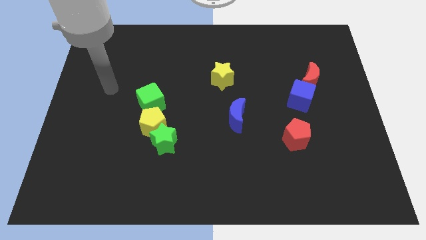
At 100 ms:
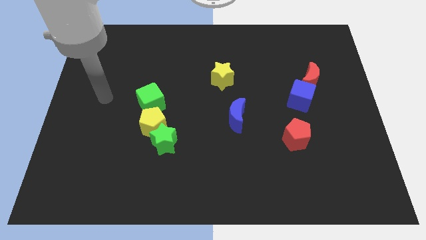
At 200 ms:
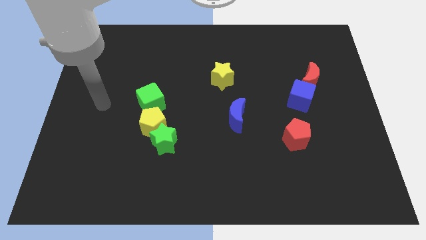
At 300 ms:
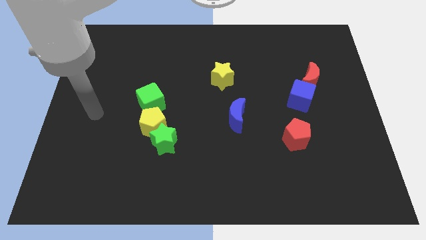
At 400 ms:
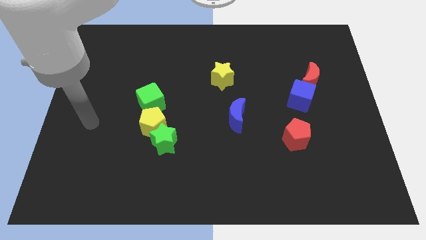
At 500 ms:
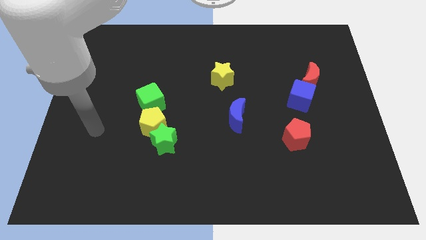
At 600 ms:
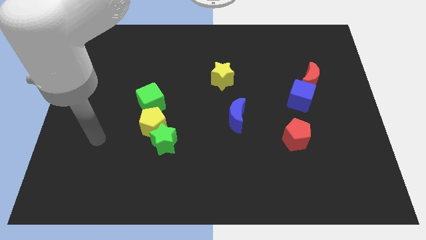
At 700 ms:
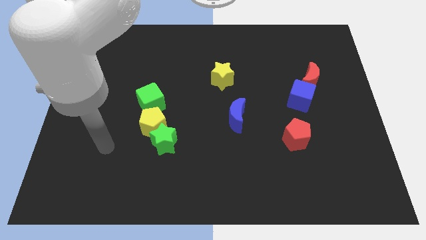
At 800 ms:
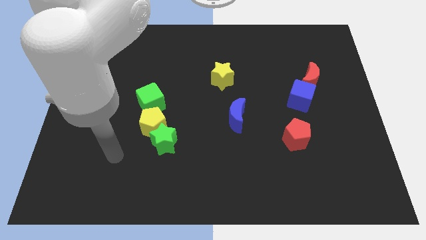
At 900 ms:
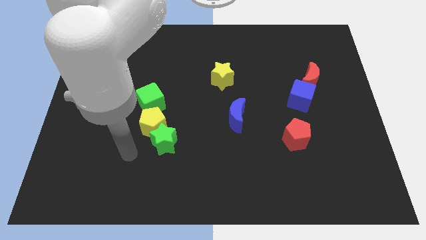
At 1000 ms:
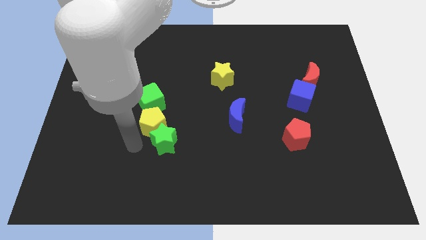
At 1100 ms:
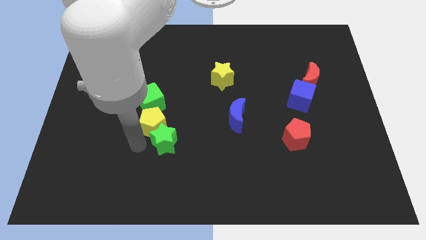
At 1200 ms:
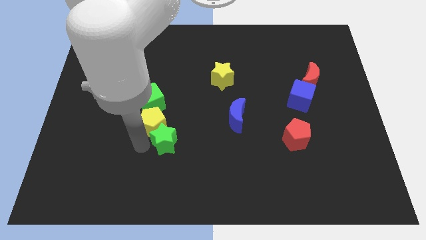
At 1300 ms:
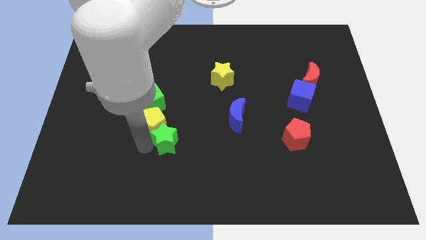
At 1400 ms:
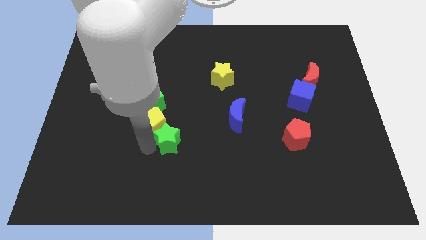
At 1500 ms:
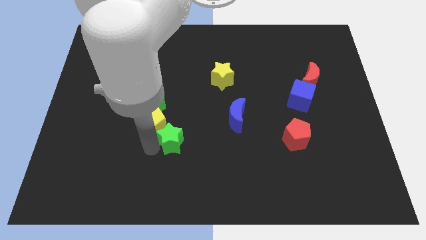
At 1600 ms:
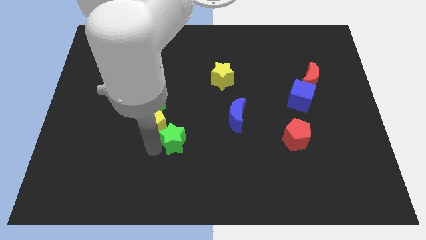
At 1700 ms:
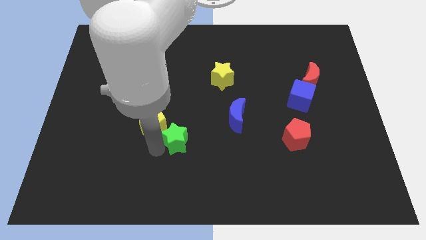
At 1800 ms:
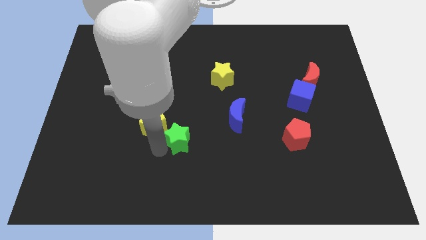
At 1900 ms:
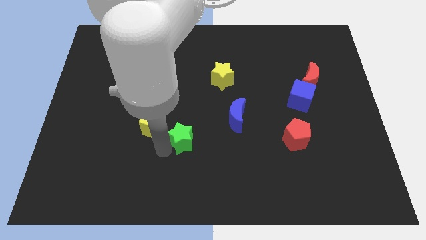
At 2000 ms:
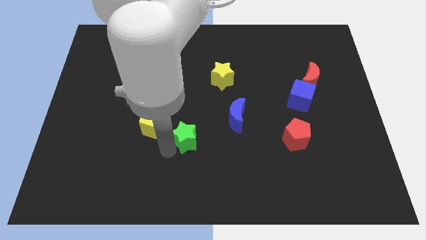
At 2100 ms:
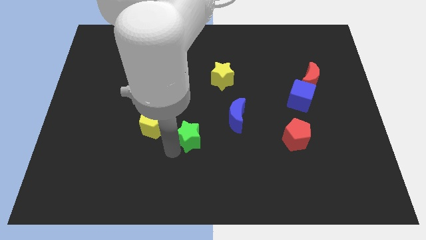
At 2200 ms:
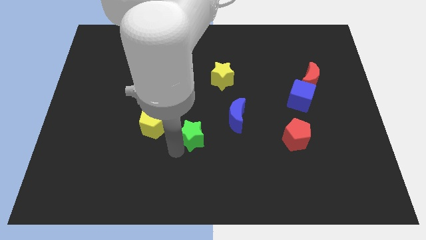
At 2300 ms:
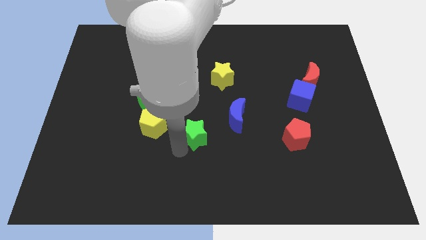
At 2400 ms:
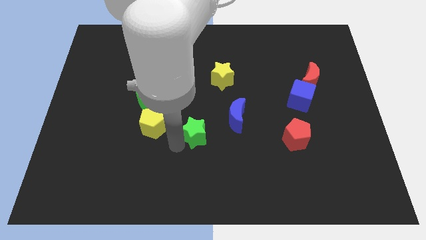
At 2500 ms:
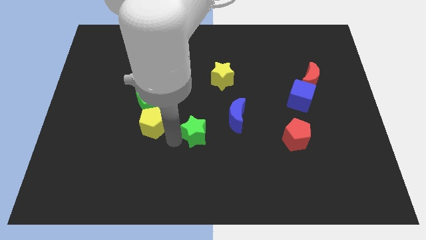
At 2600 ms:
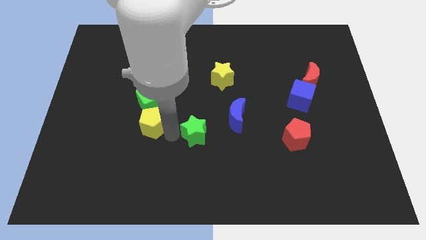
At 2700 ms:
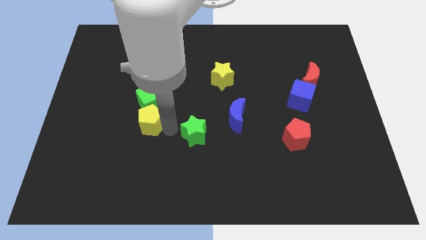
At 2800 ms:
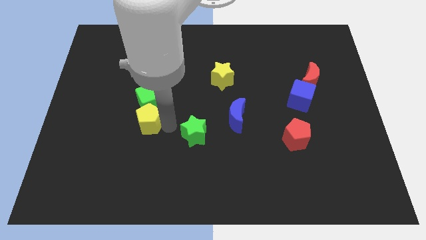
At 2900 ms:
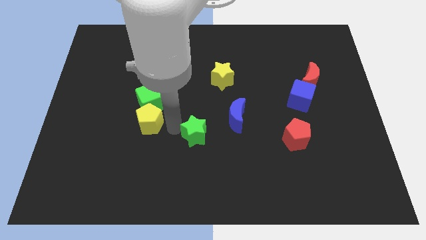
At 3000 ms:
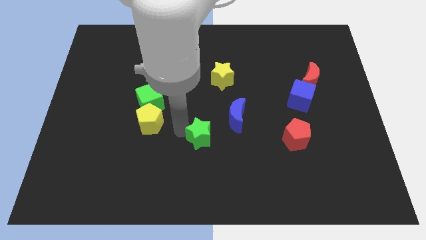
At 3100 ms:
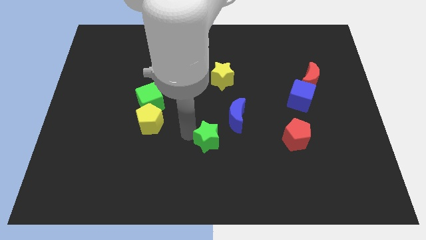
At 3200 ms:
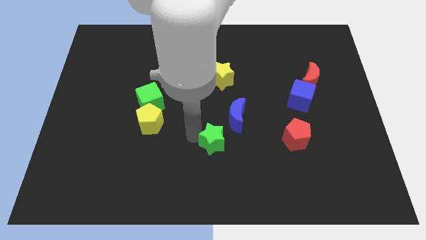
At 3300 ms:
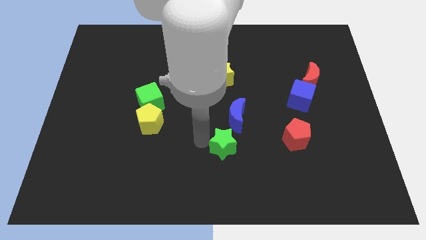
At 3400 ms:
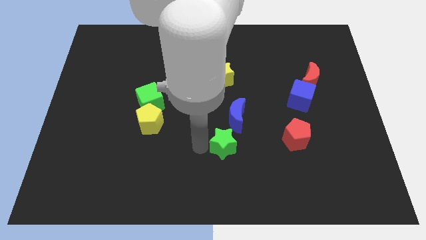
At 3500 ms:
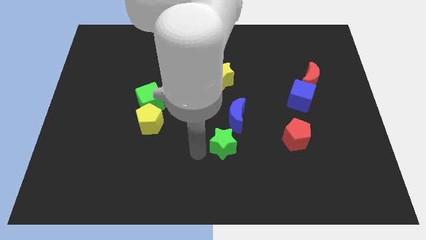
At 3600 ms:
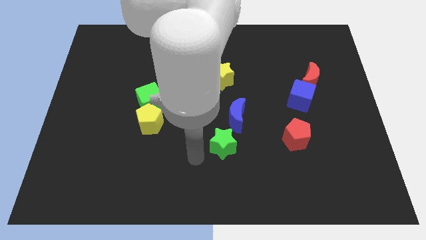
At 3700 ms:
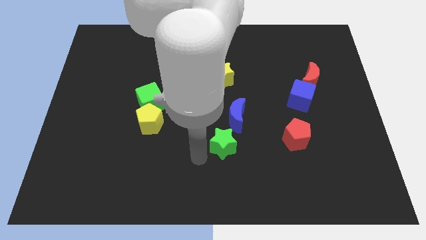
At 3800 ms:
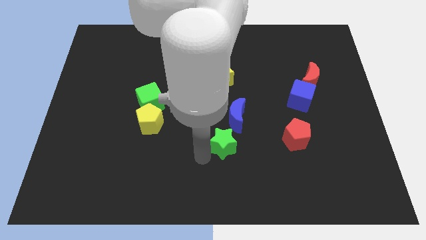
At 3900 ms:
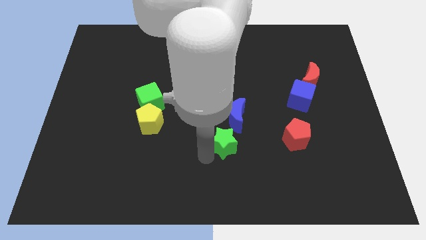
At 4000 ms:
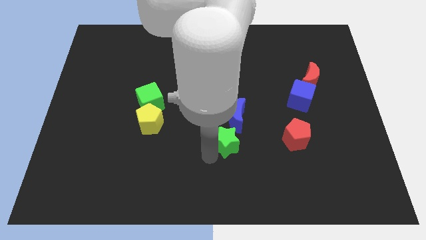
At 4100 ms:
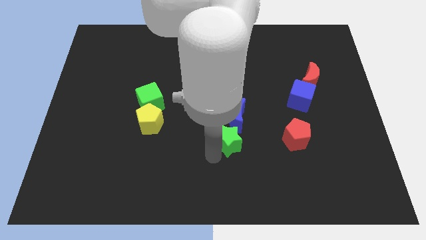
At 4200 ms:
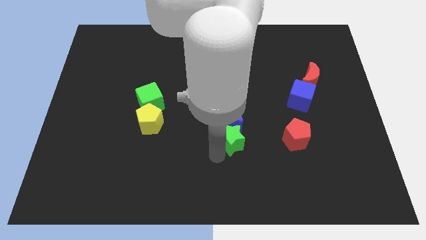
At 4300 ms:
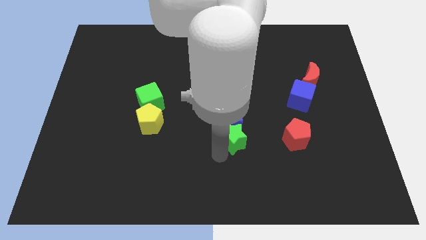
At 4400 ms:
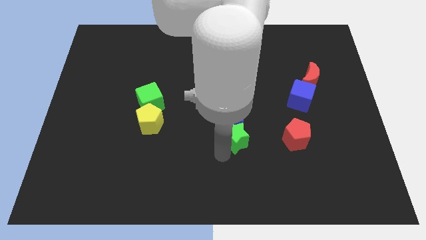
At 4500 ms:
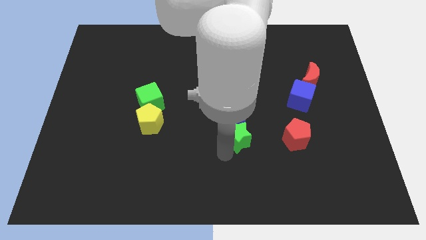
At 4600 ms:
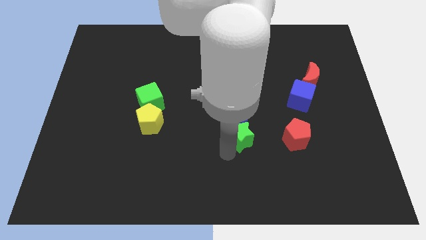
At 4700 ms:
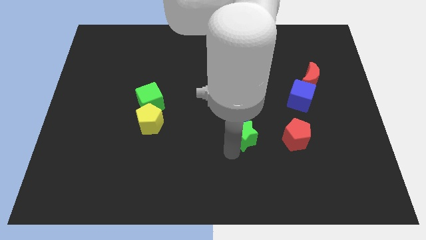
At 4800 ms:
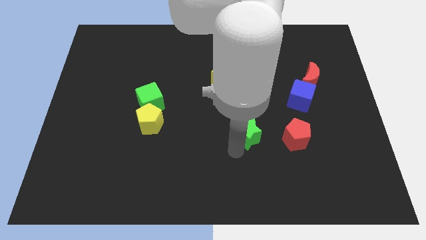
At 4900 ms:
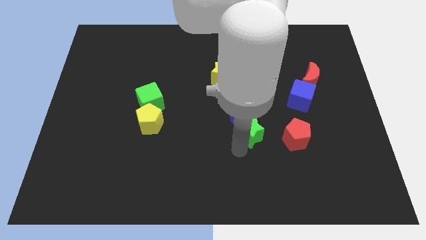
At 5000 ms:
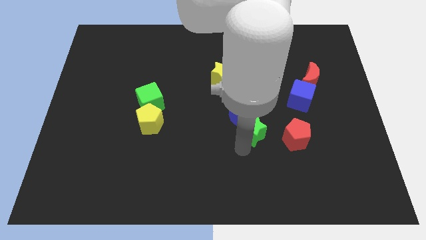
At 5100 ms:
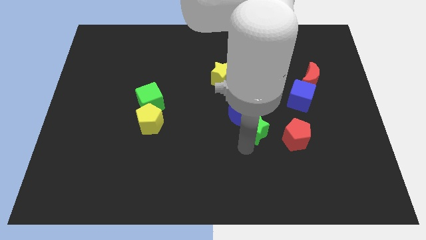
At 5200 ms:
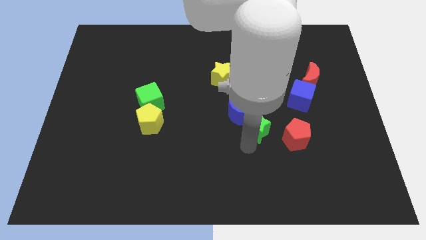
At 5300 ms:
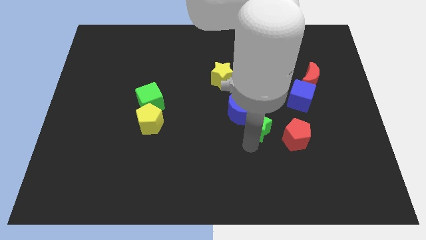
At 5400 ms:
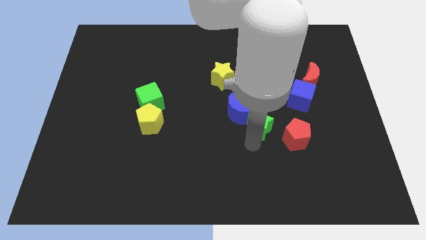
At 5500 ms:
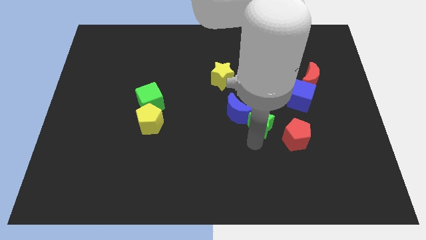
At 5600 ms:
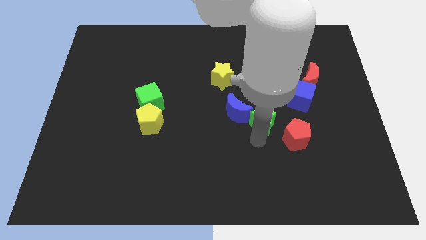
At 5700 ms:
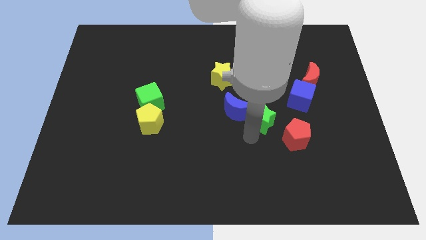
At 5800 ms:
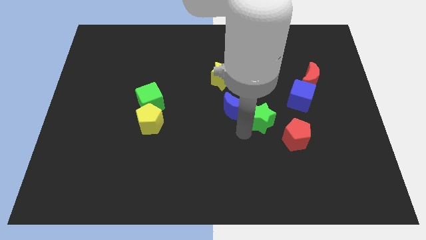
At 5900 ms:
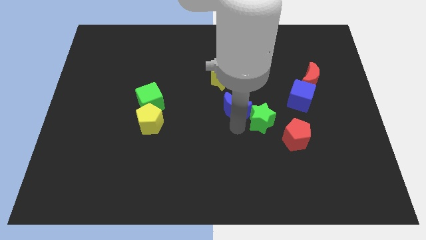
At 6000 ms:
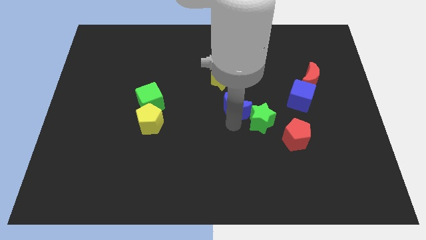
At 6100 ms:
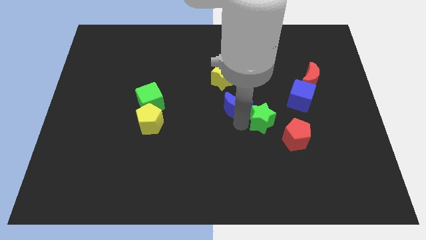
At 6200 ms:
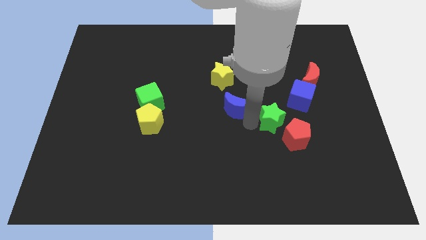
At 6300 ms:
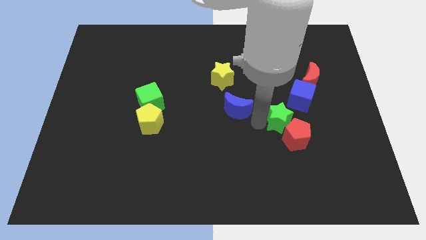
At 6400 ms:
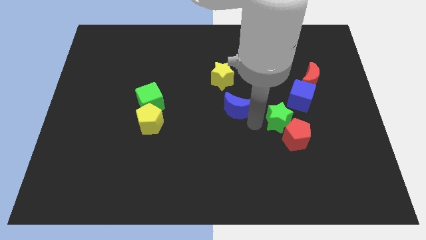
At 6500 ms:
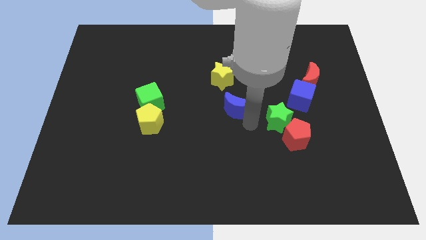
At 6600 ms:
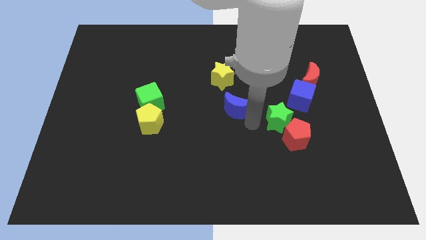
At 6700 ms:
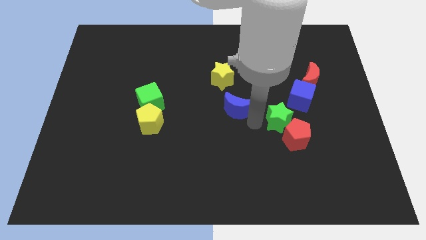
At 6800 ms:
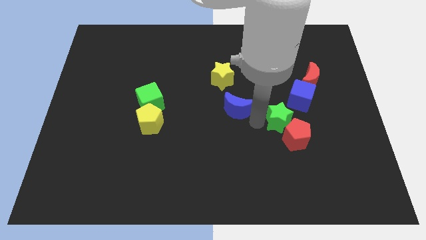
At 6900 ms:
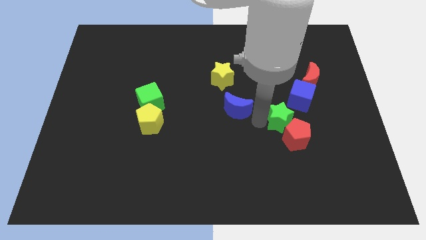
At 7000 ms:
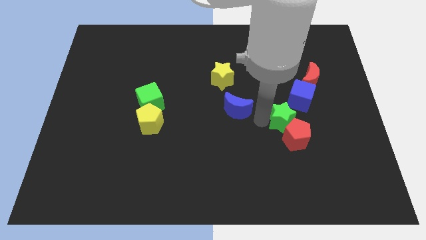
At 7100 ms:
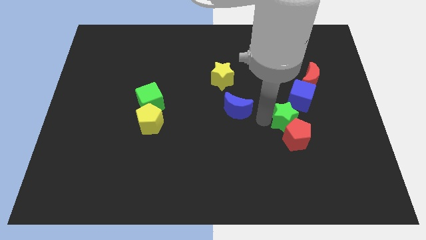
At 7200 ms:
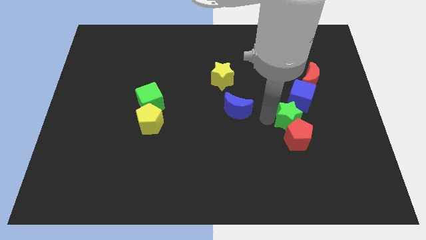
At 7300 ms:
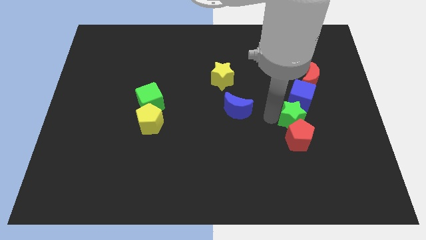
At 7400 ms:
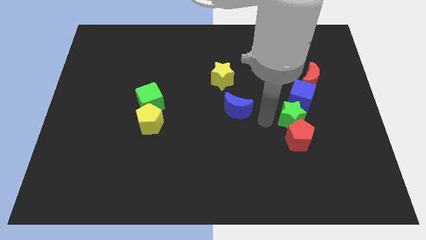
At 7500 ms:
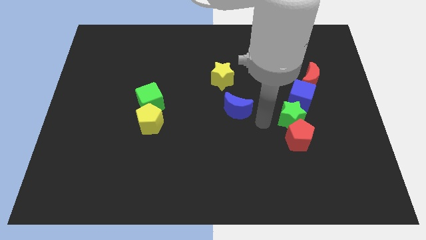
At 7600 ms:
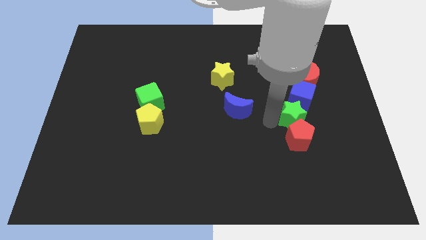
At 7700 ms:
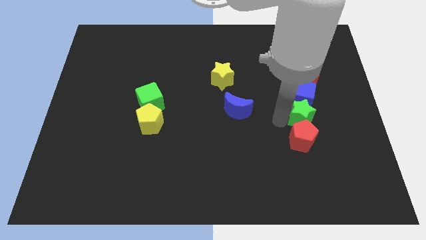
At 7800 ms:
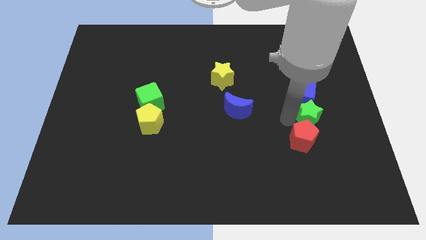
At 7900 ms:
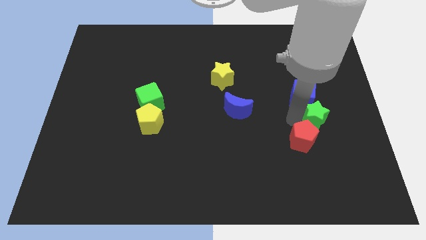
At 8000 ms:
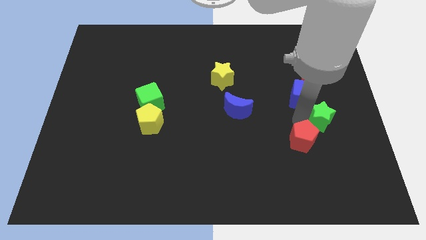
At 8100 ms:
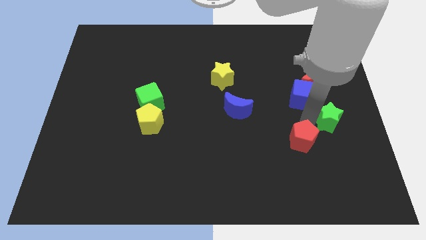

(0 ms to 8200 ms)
move the green star to the center right
